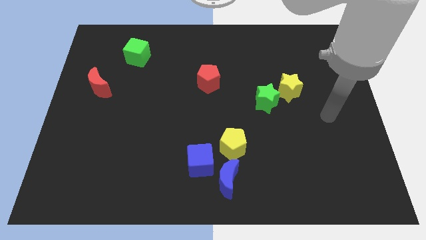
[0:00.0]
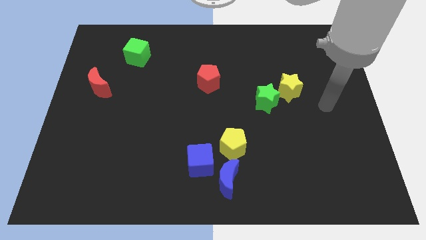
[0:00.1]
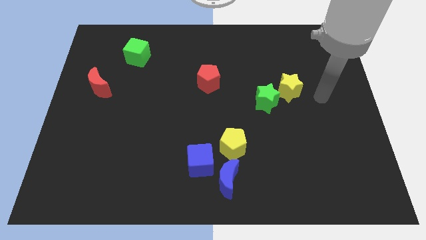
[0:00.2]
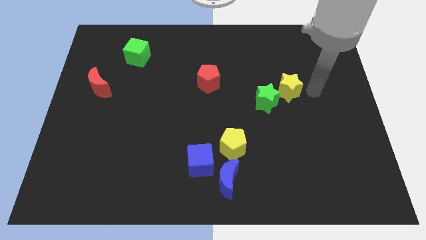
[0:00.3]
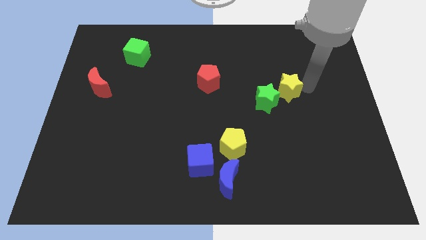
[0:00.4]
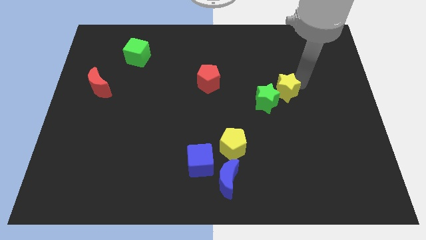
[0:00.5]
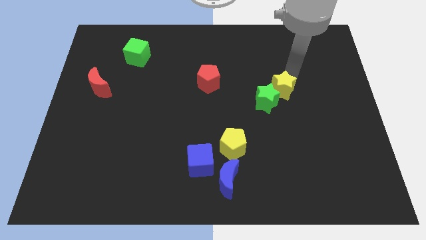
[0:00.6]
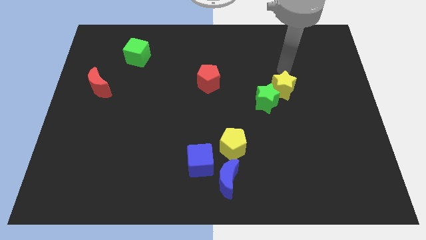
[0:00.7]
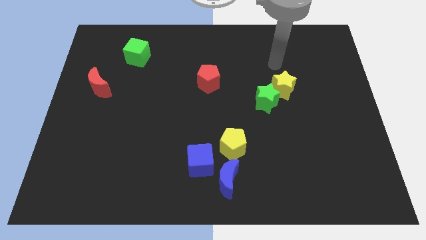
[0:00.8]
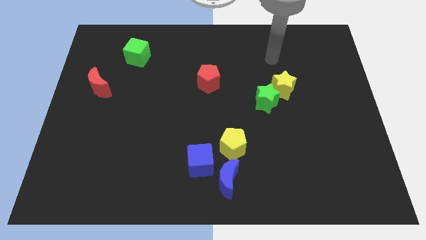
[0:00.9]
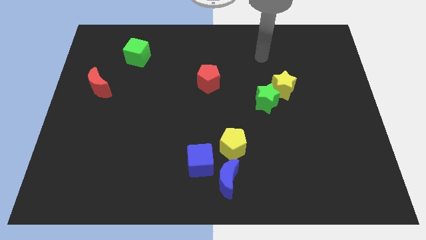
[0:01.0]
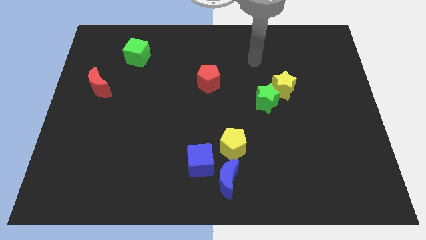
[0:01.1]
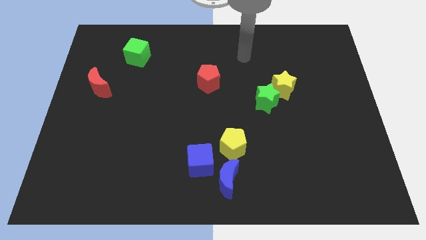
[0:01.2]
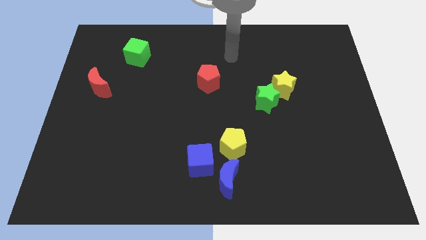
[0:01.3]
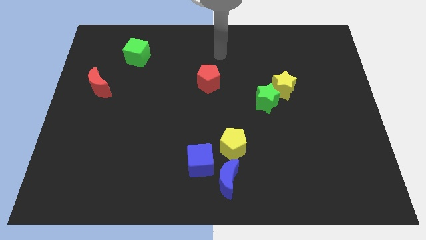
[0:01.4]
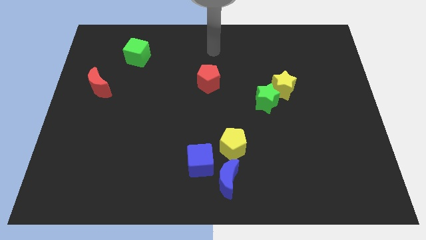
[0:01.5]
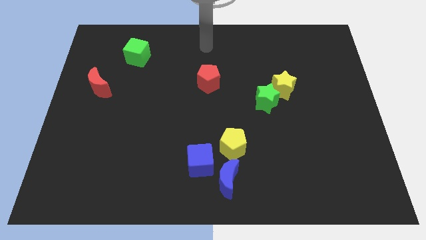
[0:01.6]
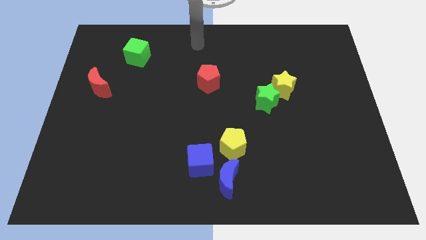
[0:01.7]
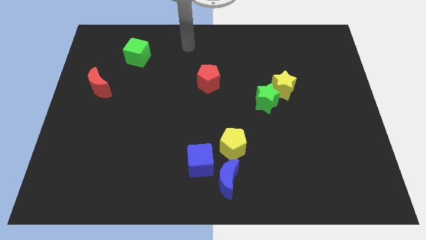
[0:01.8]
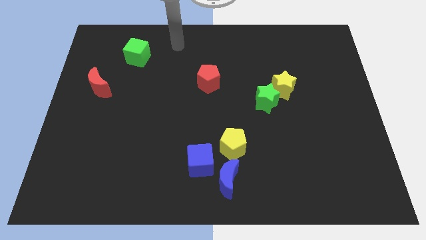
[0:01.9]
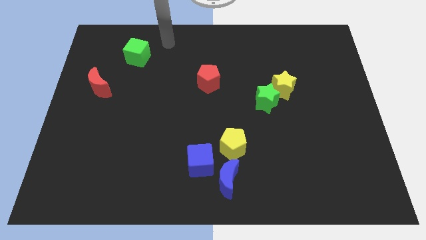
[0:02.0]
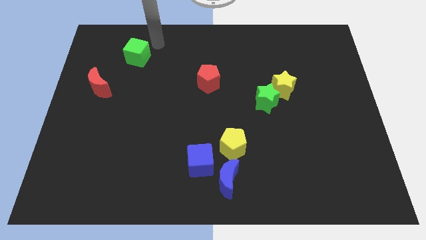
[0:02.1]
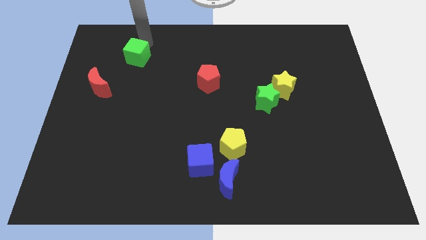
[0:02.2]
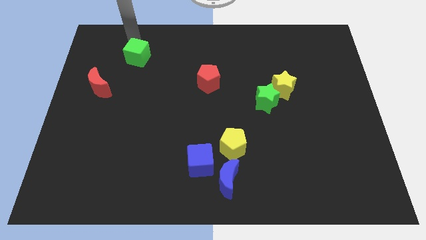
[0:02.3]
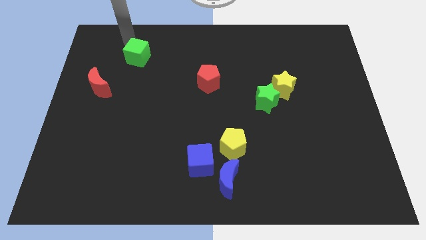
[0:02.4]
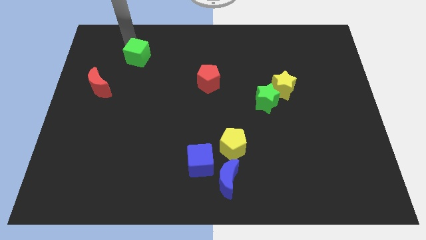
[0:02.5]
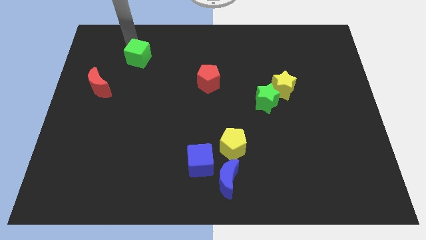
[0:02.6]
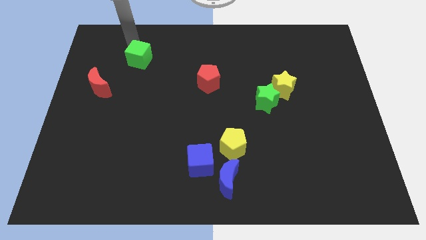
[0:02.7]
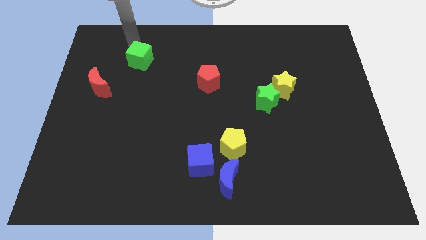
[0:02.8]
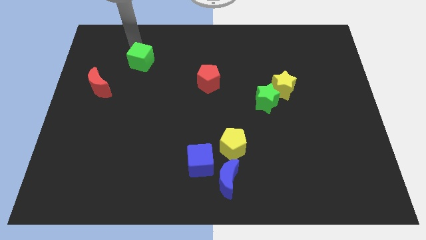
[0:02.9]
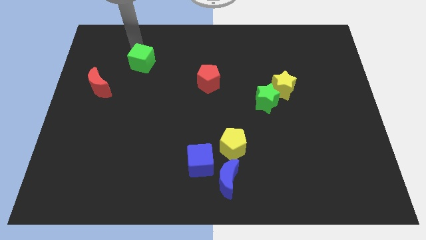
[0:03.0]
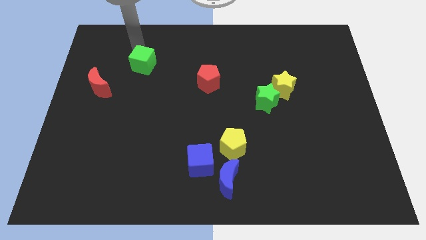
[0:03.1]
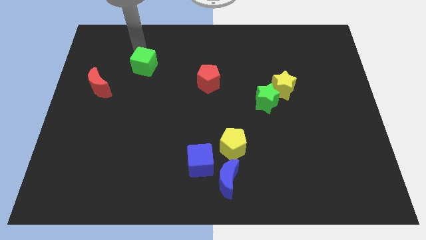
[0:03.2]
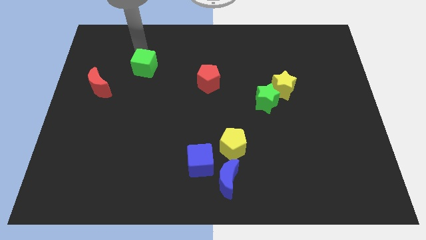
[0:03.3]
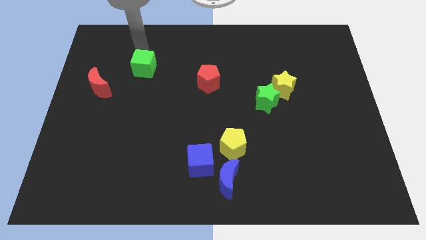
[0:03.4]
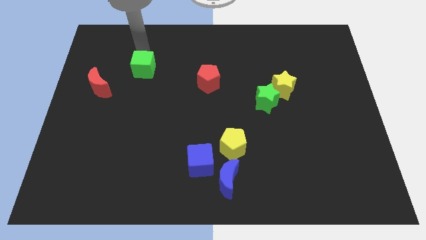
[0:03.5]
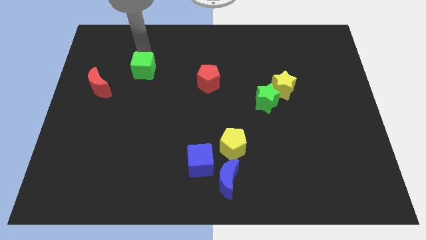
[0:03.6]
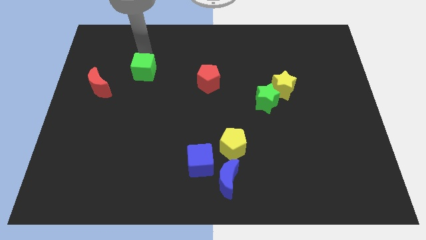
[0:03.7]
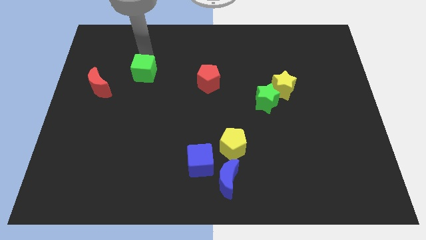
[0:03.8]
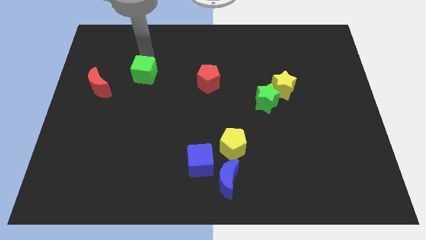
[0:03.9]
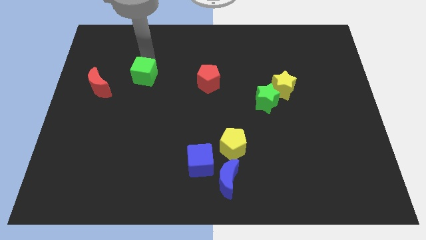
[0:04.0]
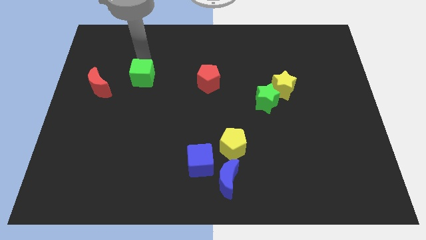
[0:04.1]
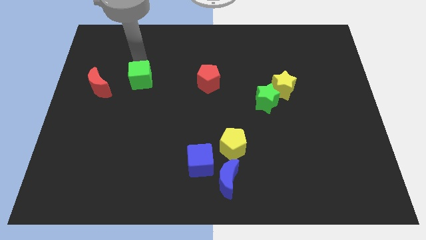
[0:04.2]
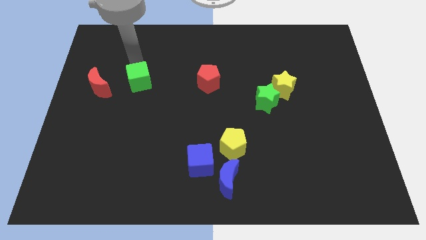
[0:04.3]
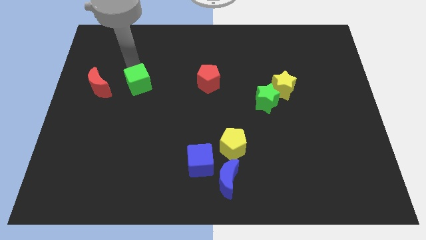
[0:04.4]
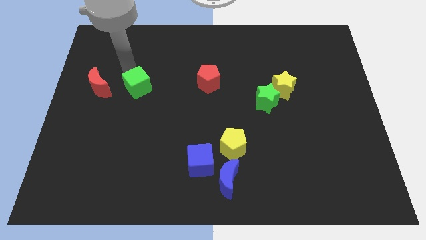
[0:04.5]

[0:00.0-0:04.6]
push the green cube downwards and to the right diagonally somewhat

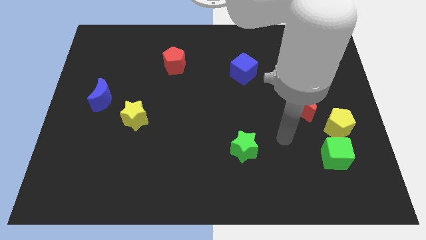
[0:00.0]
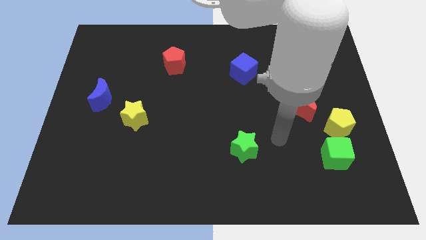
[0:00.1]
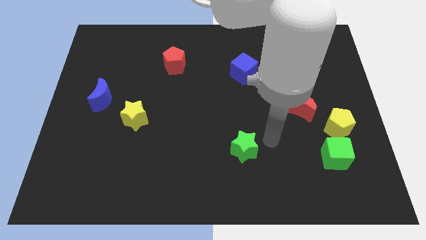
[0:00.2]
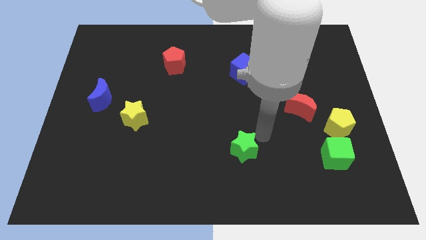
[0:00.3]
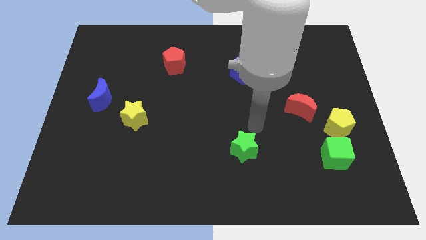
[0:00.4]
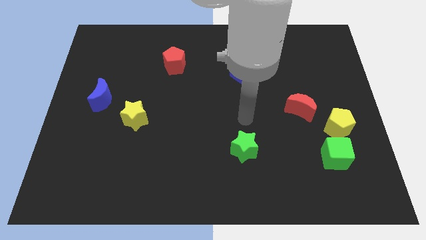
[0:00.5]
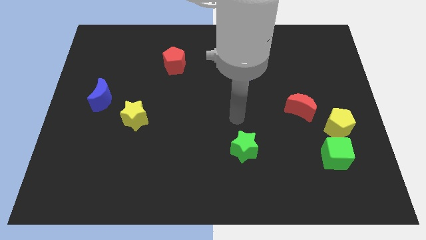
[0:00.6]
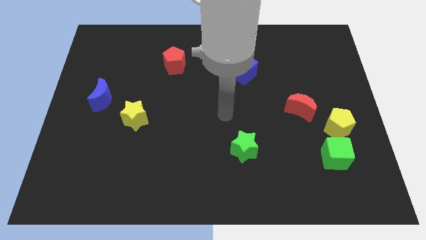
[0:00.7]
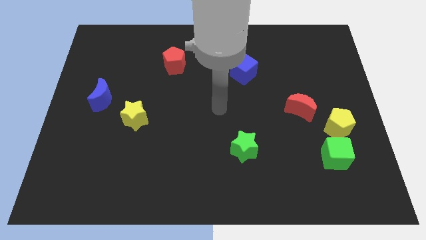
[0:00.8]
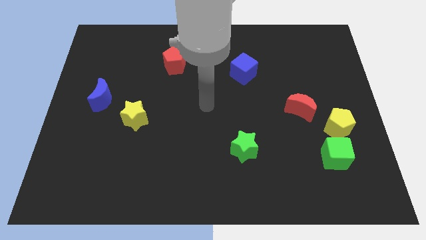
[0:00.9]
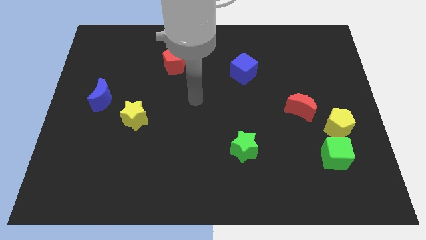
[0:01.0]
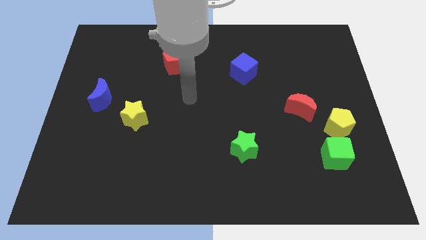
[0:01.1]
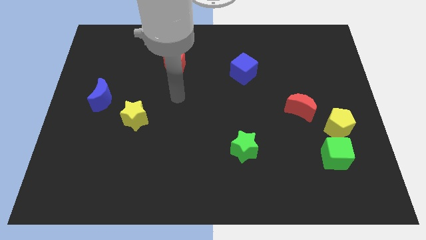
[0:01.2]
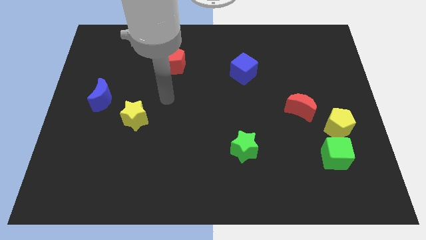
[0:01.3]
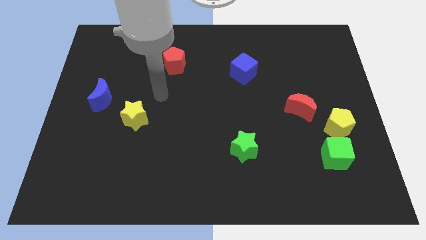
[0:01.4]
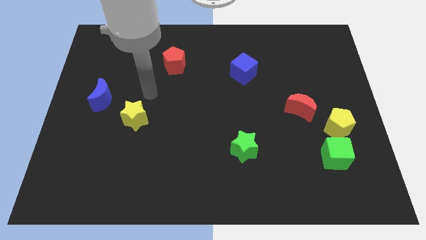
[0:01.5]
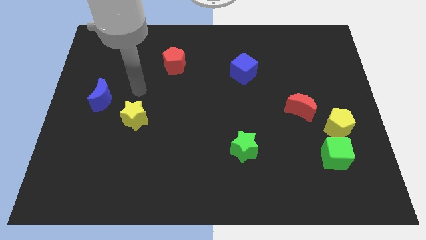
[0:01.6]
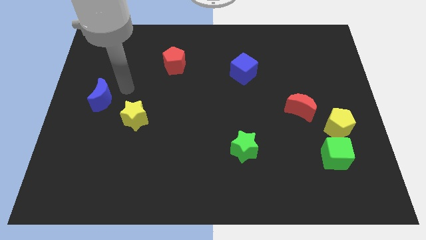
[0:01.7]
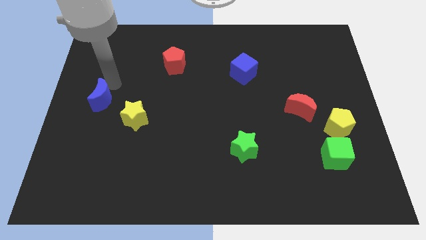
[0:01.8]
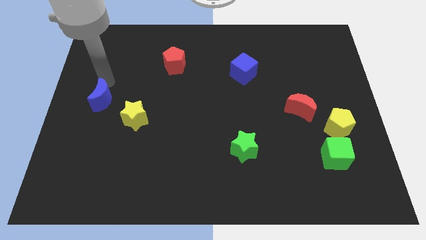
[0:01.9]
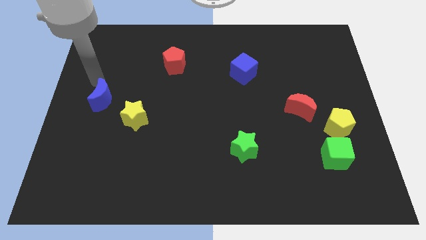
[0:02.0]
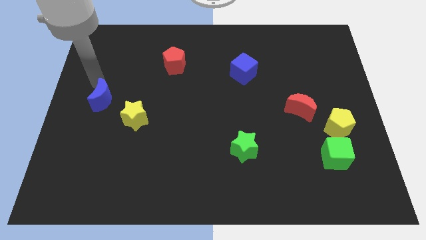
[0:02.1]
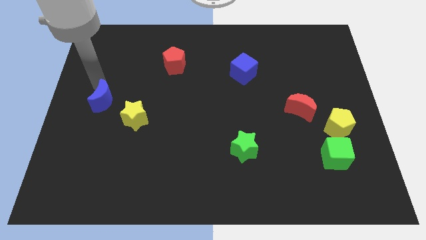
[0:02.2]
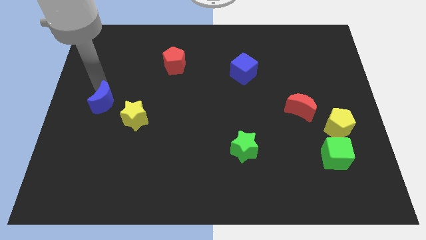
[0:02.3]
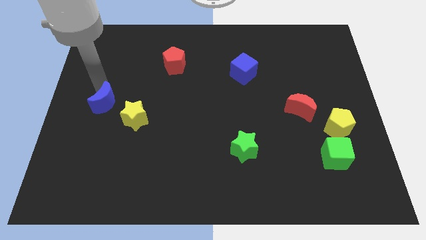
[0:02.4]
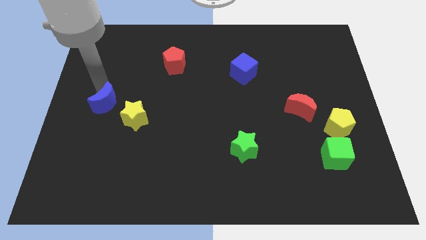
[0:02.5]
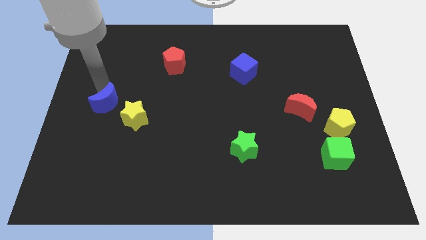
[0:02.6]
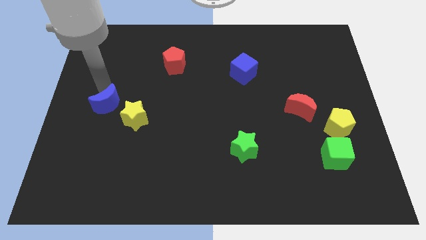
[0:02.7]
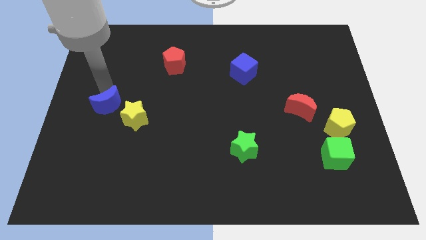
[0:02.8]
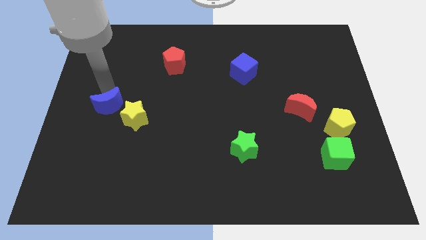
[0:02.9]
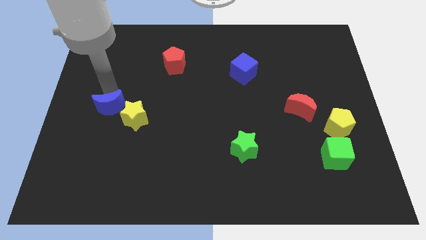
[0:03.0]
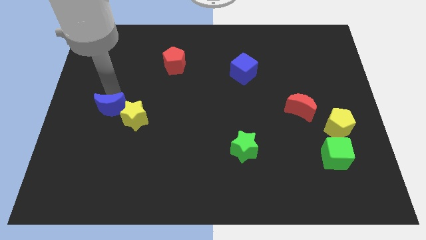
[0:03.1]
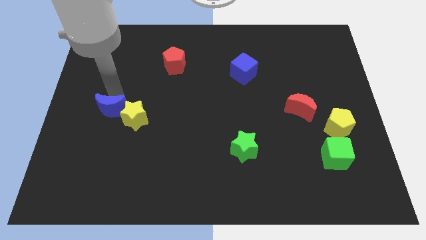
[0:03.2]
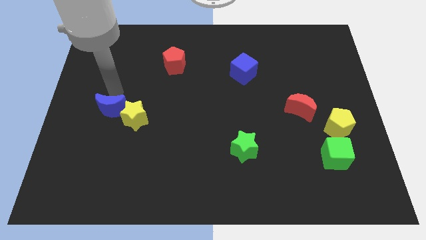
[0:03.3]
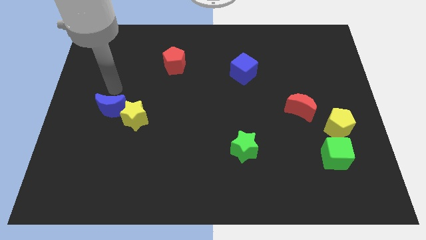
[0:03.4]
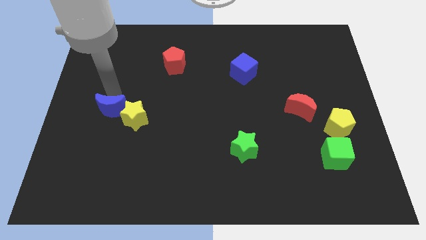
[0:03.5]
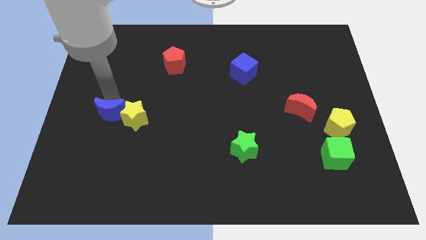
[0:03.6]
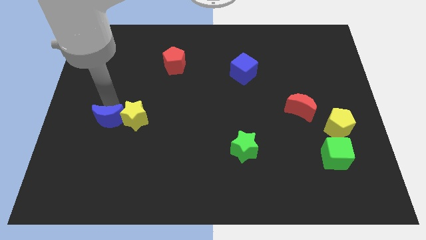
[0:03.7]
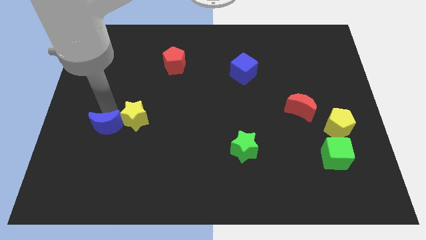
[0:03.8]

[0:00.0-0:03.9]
move the blue moon somewhat downwards and right
